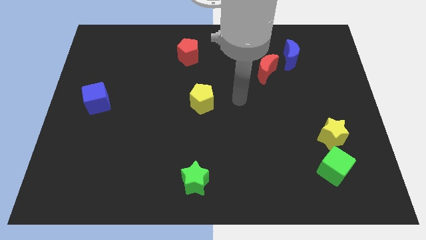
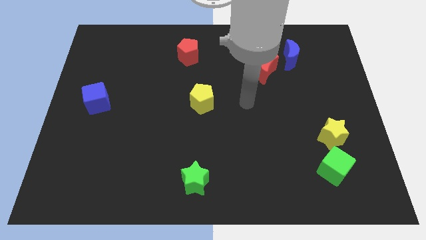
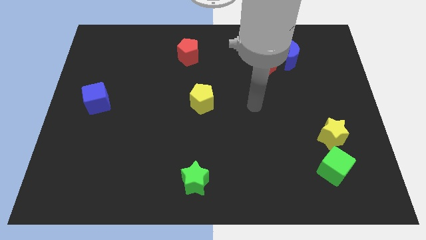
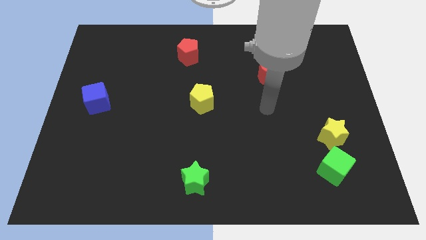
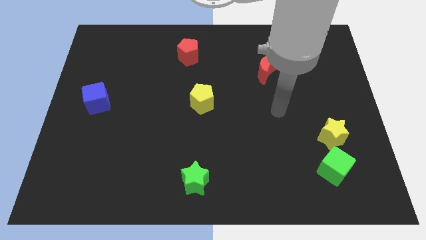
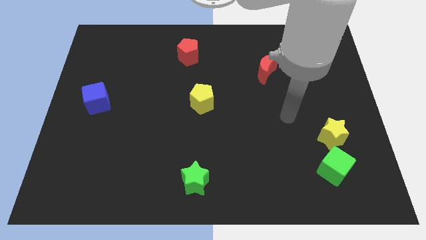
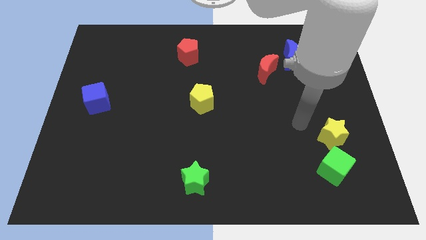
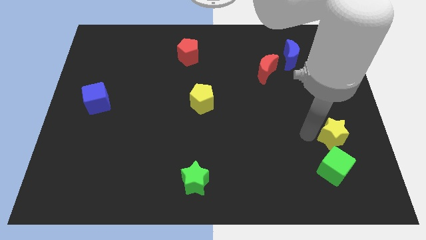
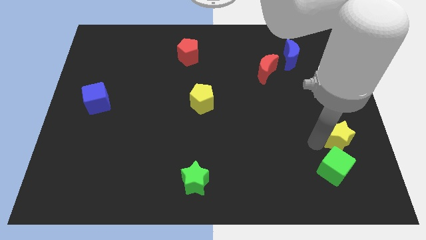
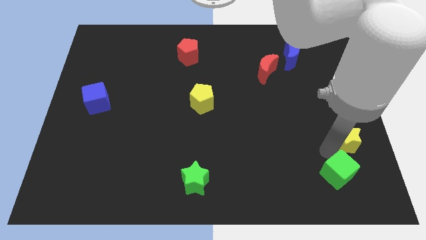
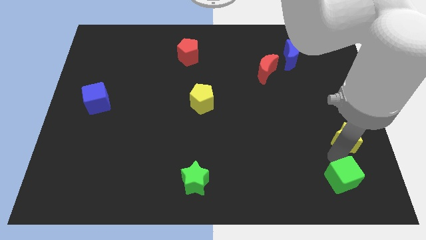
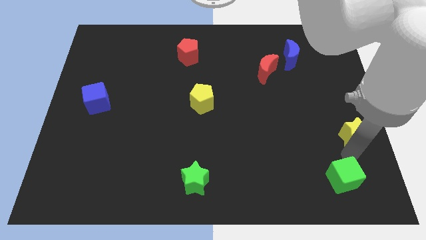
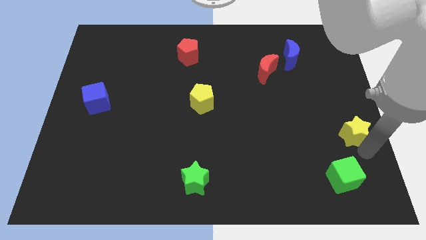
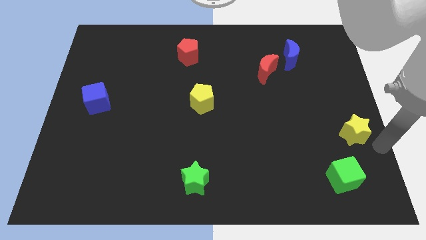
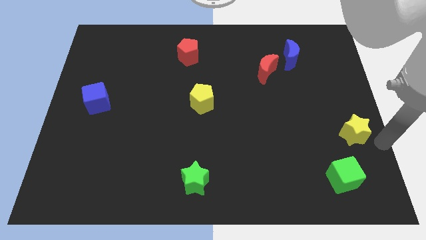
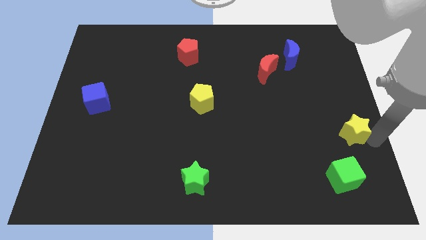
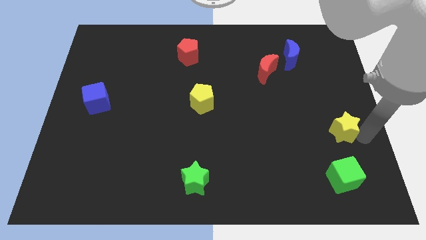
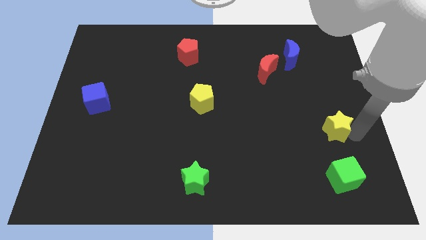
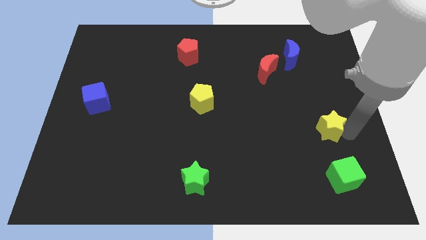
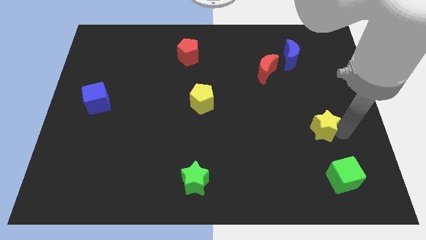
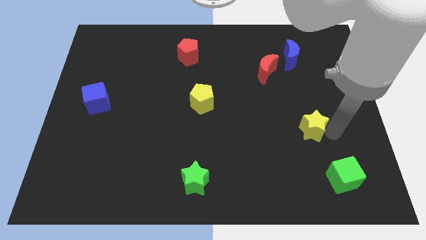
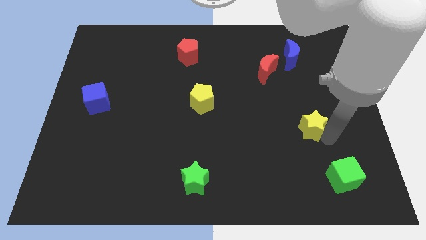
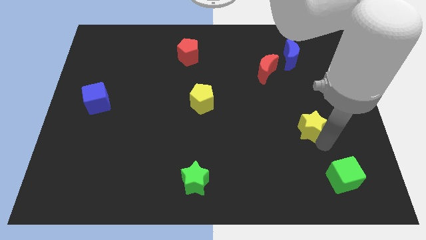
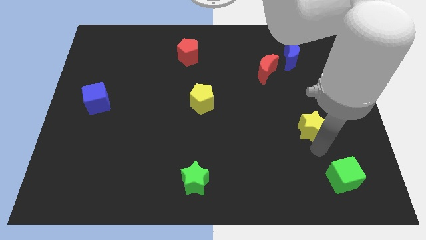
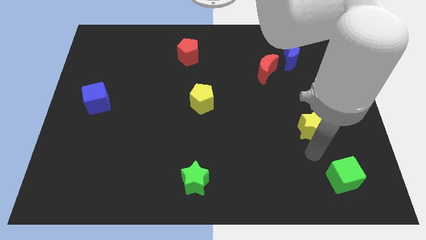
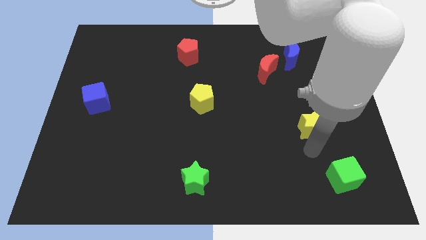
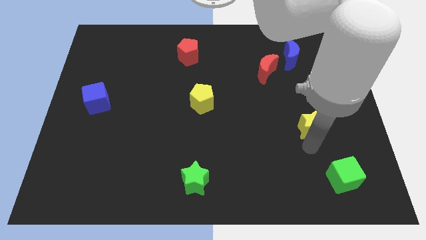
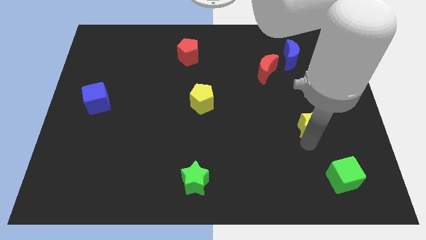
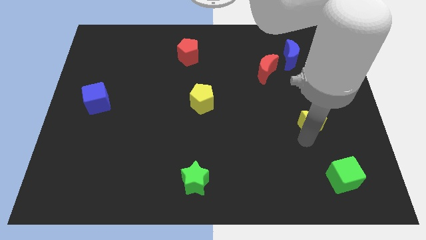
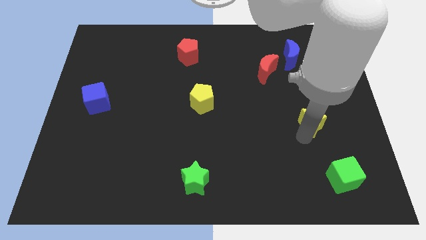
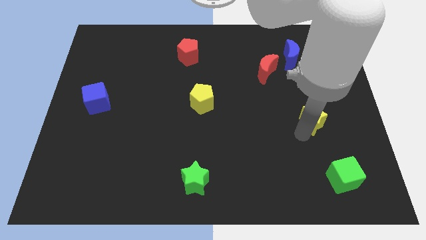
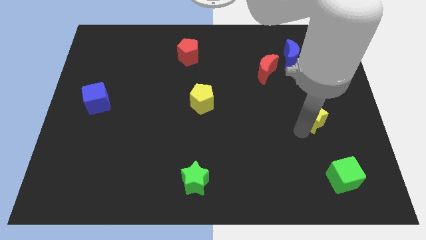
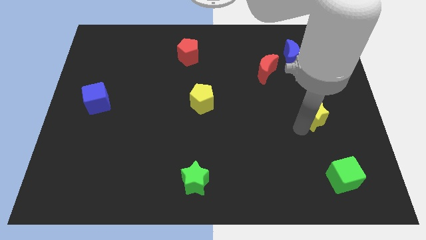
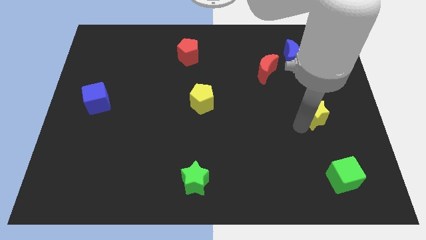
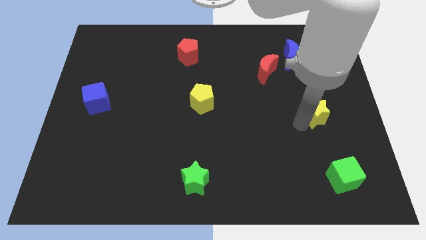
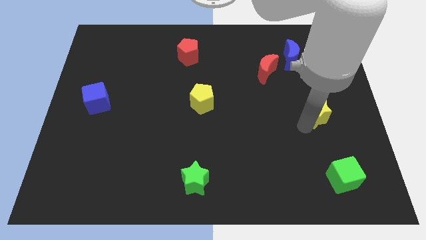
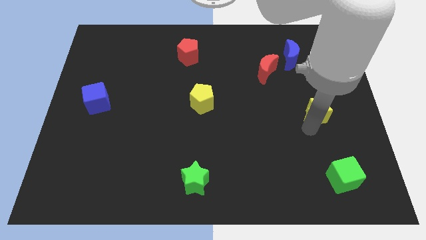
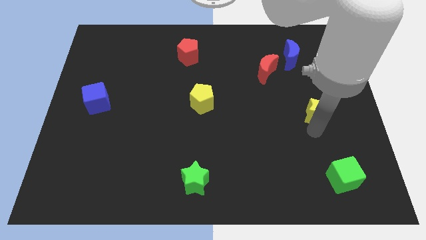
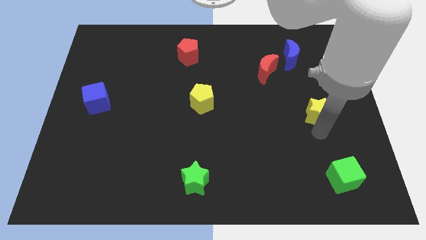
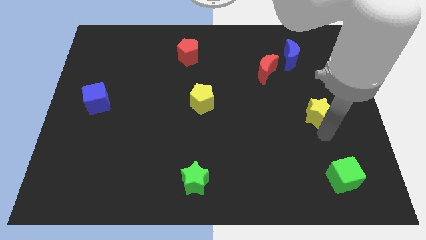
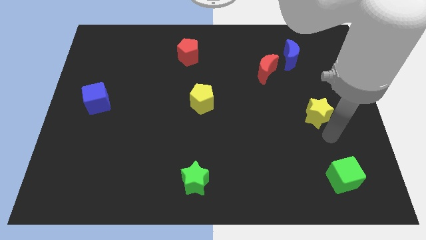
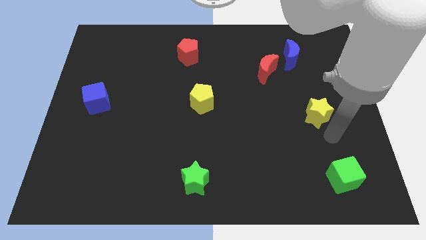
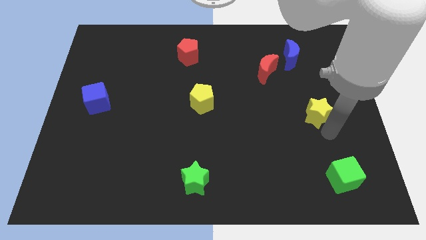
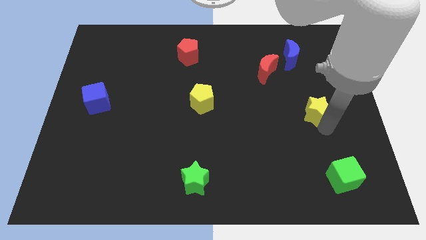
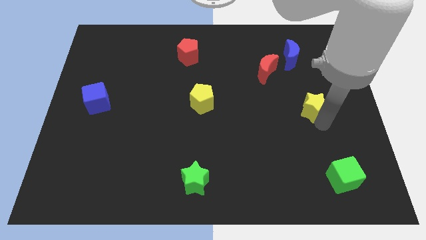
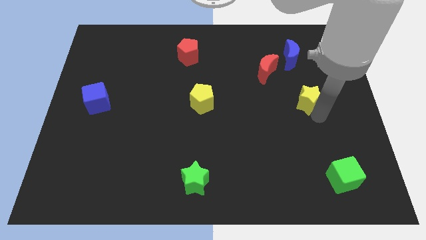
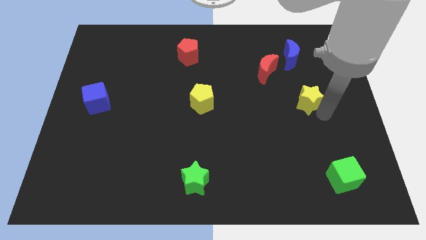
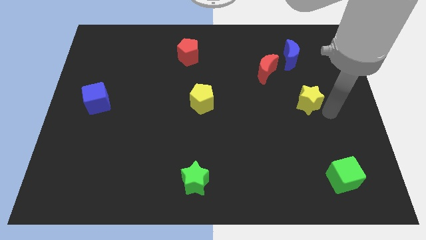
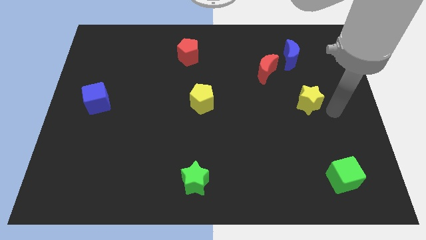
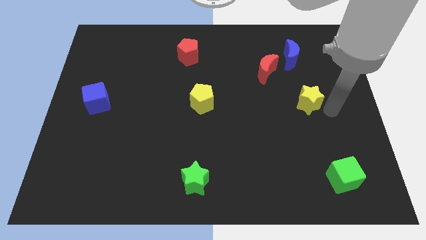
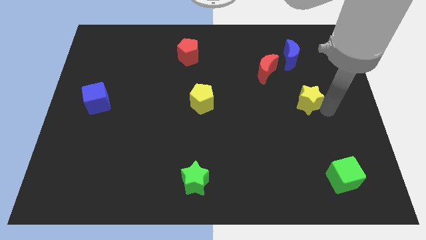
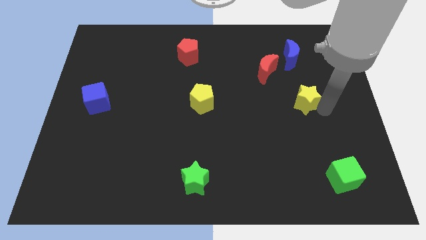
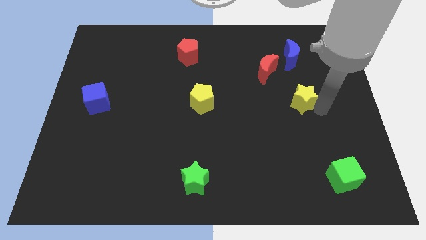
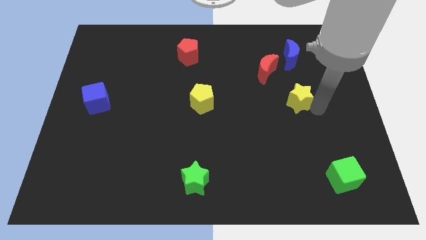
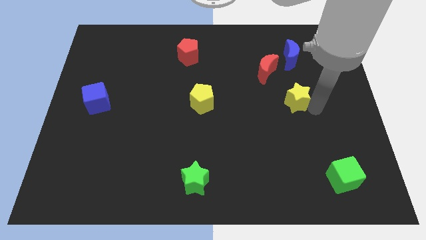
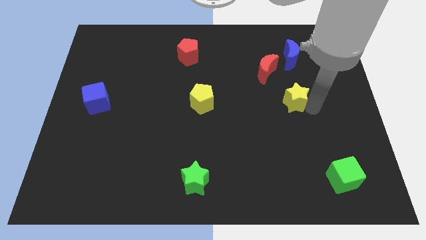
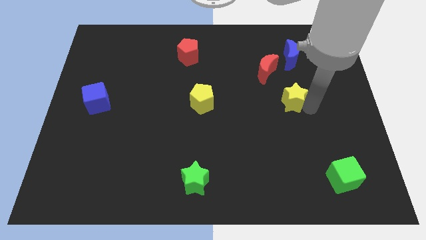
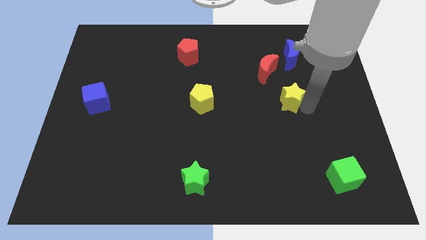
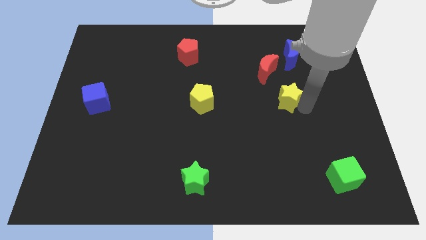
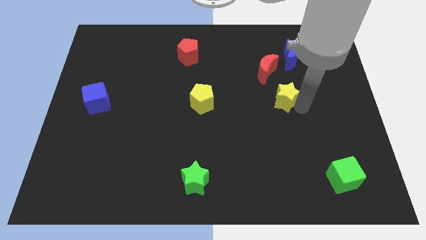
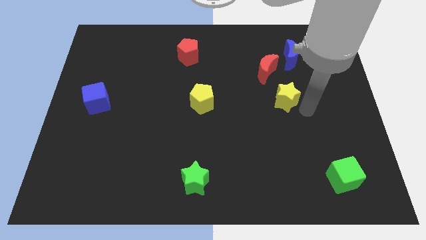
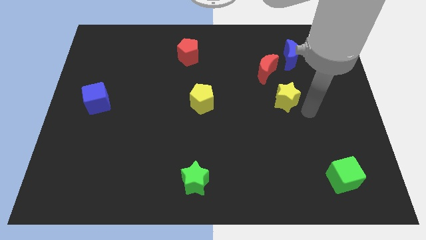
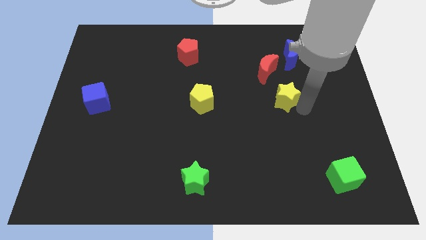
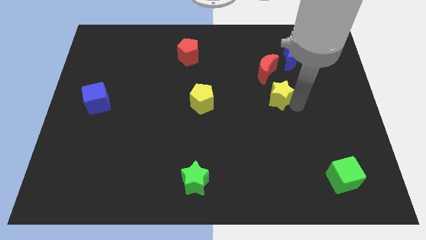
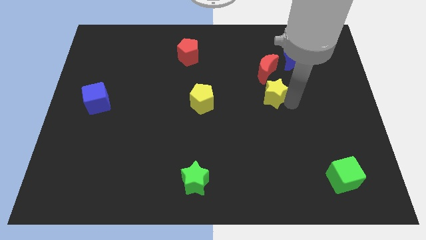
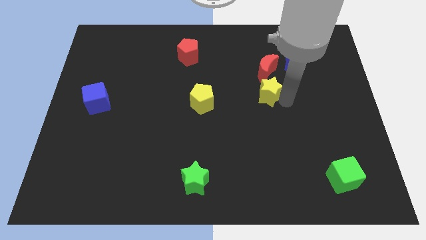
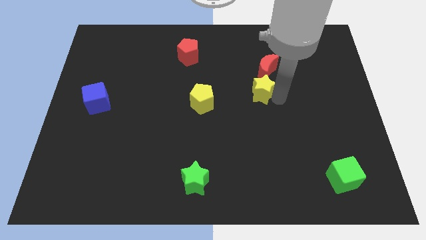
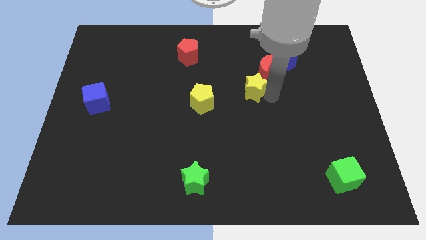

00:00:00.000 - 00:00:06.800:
move the yellow star diagonally upwards and left

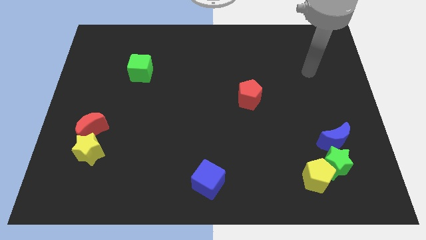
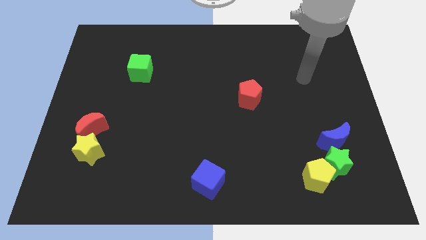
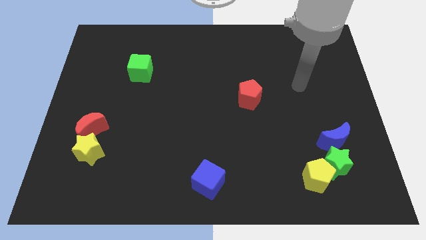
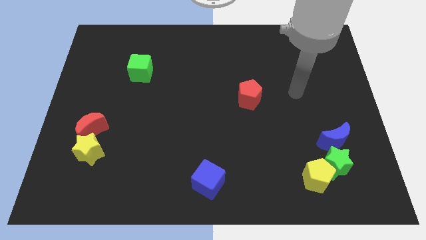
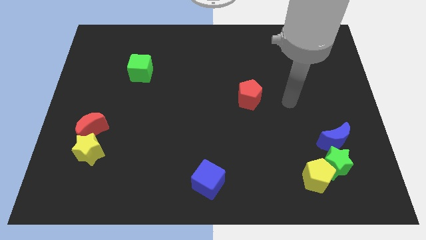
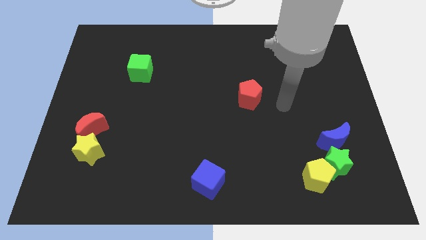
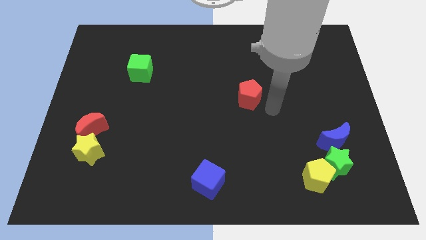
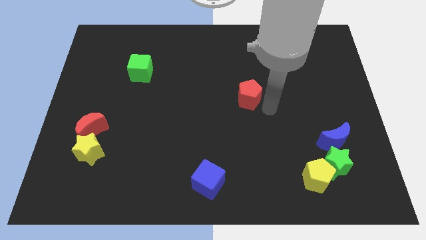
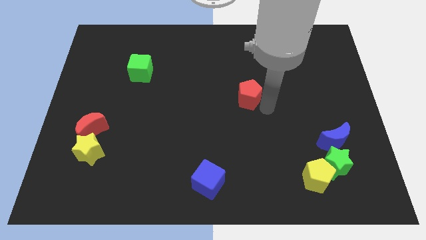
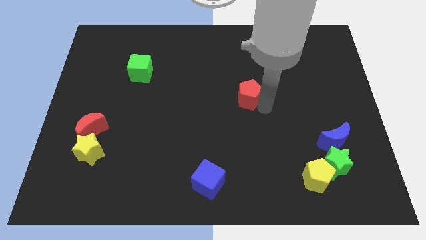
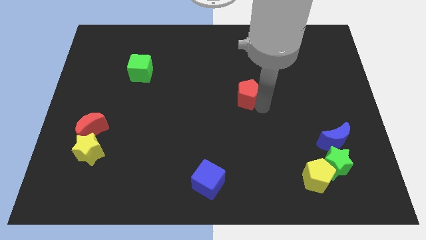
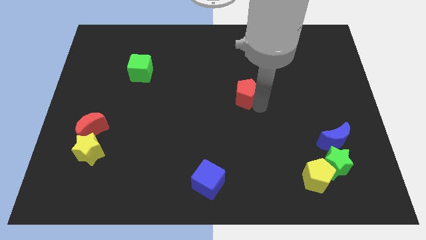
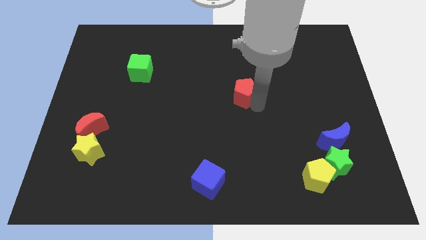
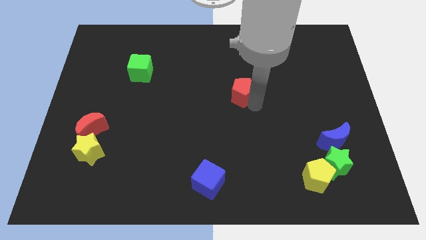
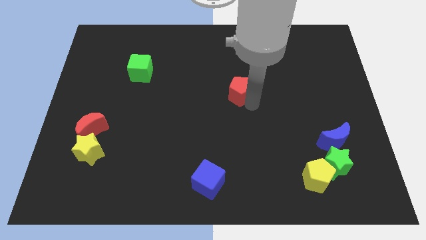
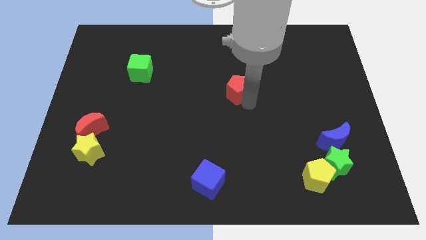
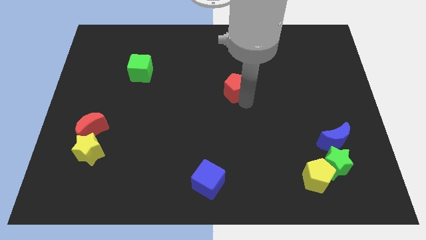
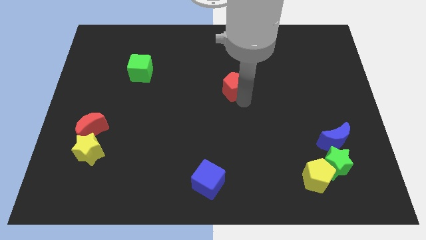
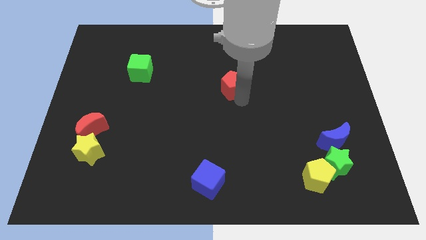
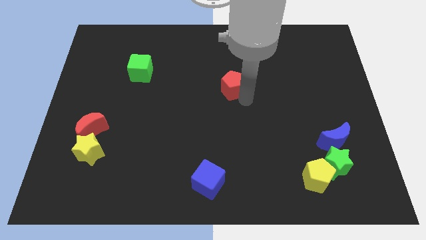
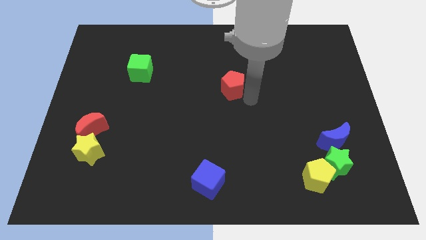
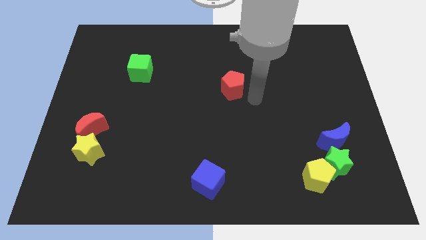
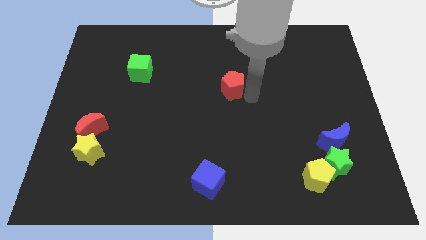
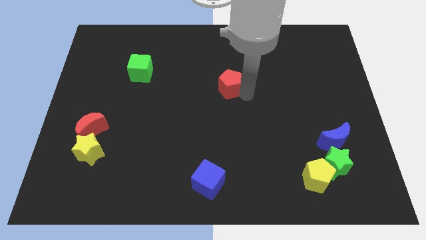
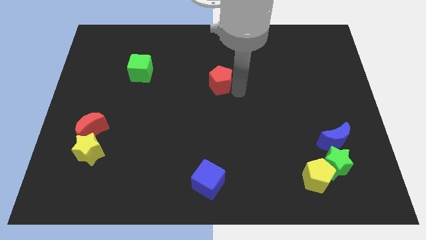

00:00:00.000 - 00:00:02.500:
slightly slide the red pentagon up and then to the left
